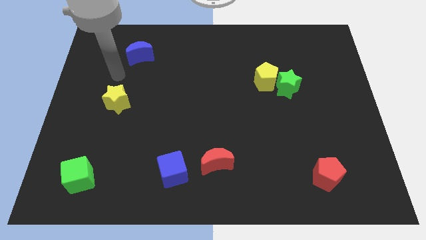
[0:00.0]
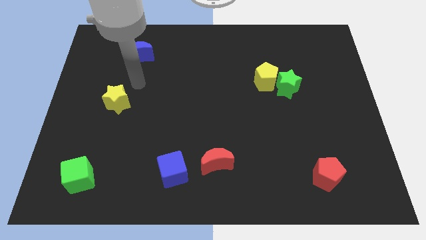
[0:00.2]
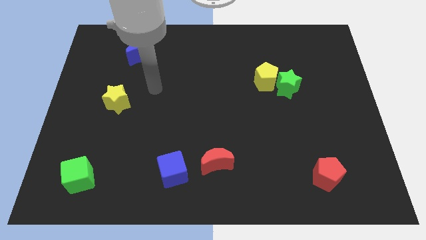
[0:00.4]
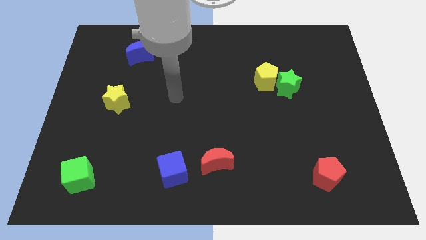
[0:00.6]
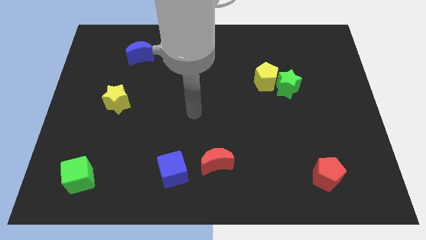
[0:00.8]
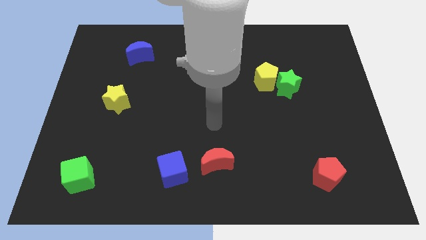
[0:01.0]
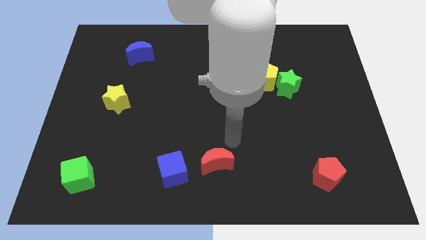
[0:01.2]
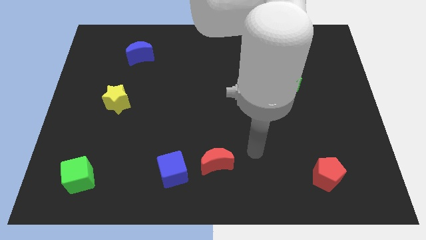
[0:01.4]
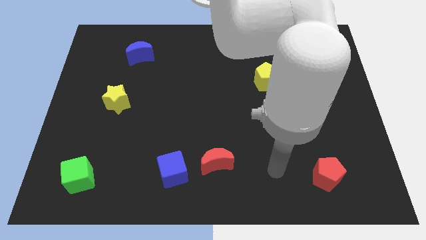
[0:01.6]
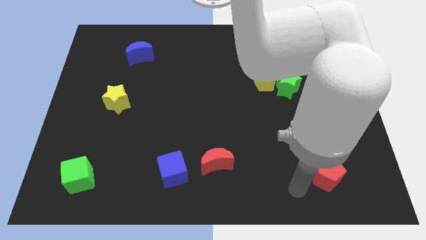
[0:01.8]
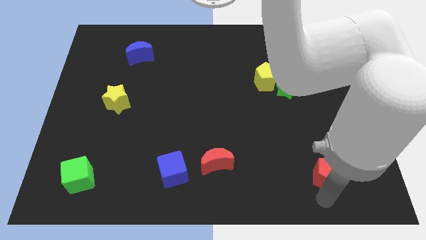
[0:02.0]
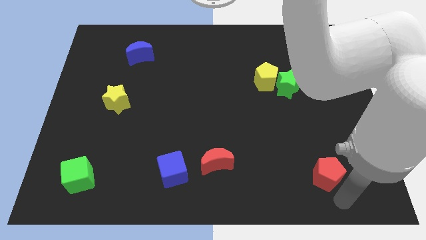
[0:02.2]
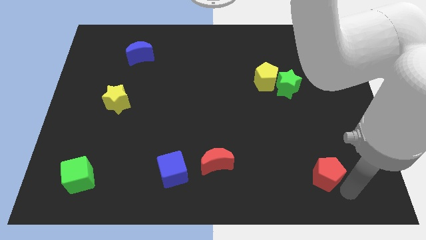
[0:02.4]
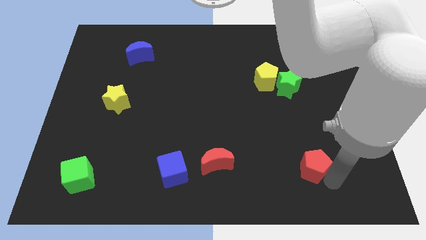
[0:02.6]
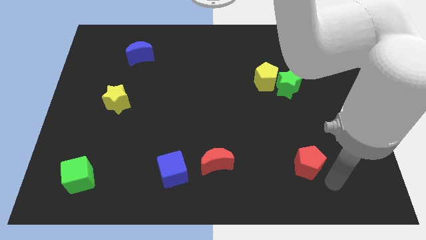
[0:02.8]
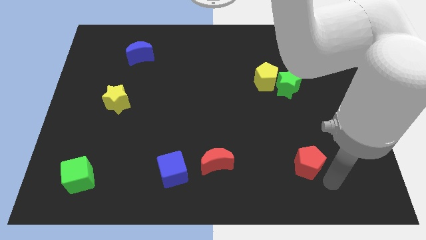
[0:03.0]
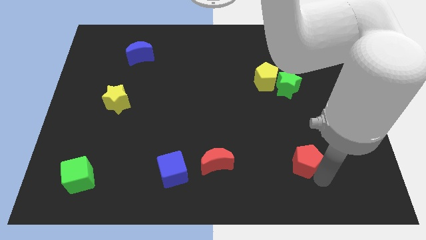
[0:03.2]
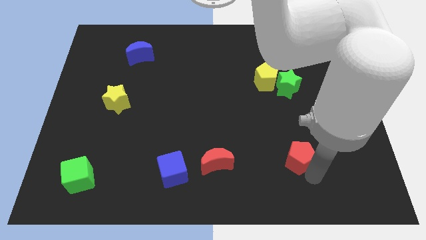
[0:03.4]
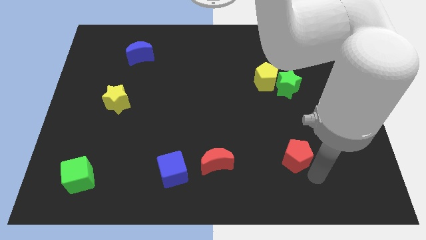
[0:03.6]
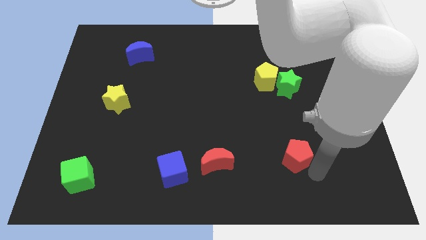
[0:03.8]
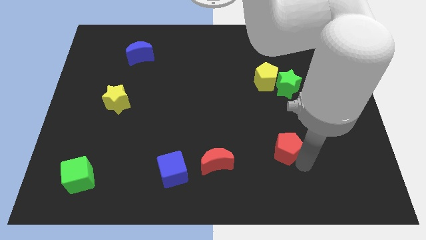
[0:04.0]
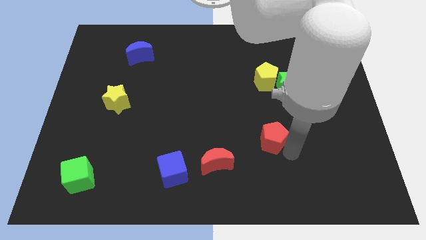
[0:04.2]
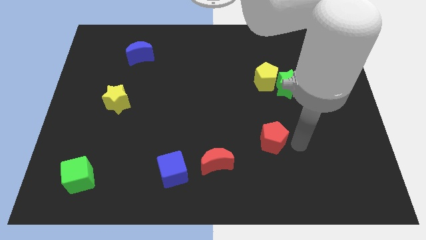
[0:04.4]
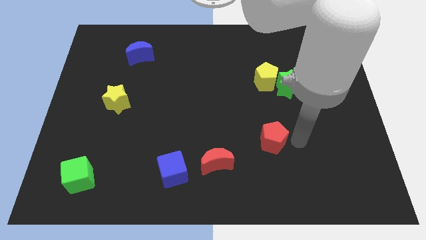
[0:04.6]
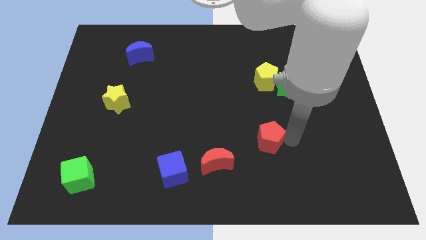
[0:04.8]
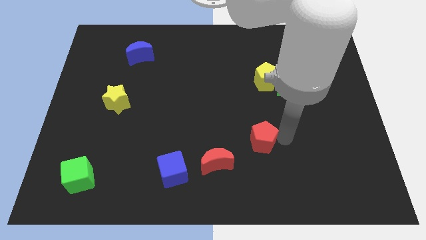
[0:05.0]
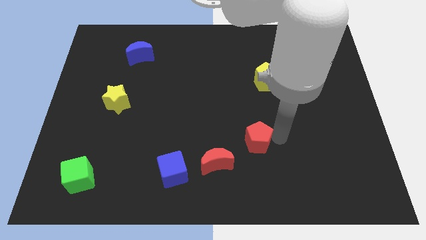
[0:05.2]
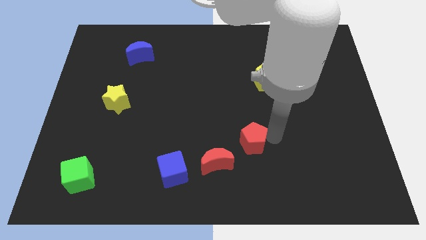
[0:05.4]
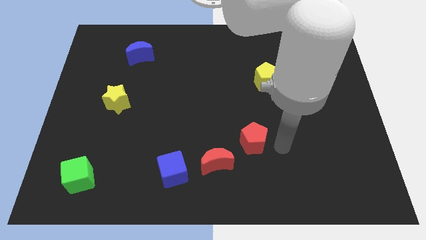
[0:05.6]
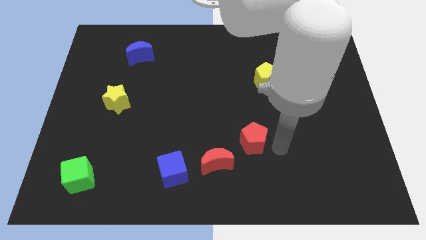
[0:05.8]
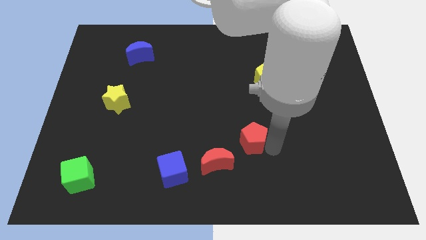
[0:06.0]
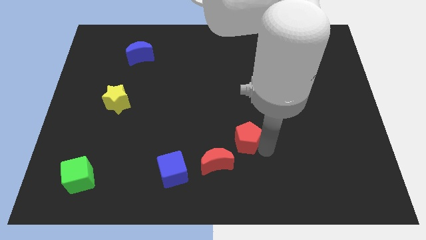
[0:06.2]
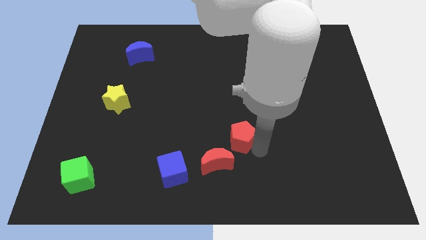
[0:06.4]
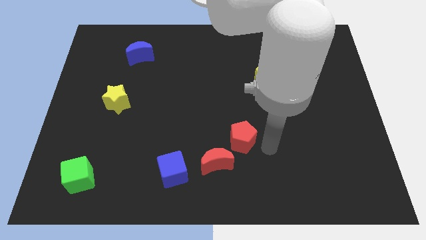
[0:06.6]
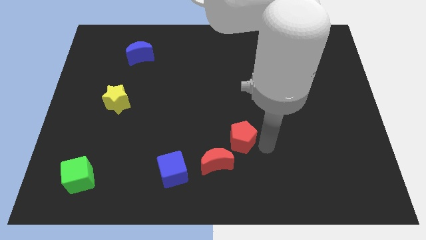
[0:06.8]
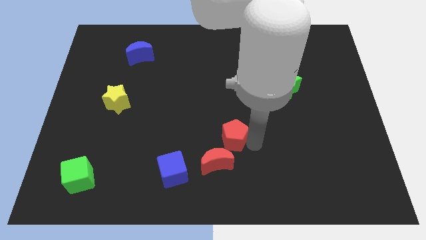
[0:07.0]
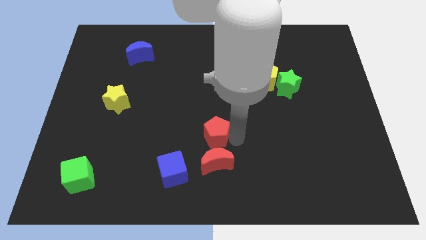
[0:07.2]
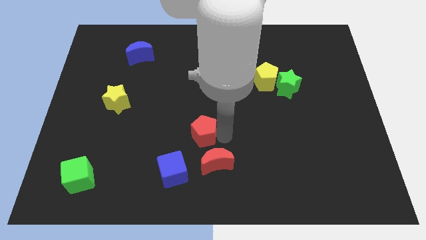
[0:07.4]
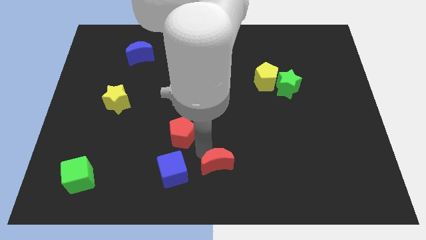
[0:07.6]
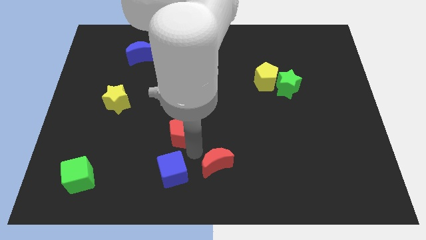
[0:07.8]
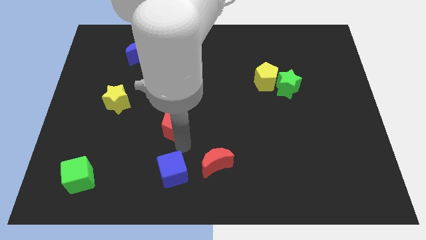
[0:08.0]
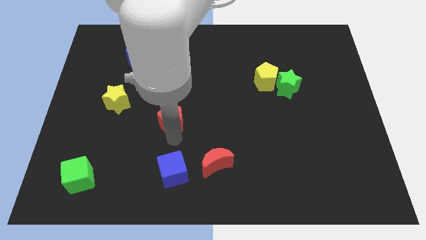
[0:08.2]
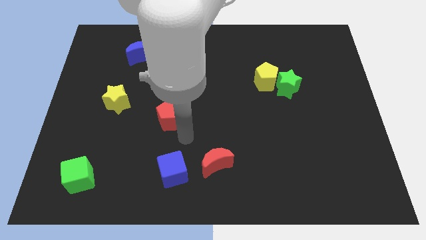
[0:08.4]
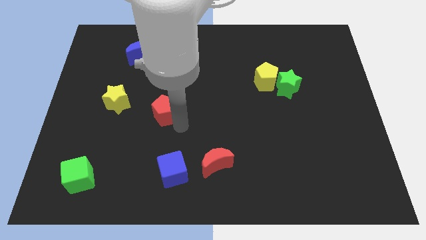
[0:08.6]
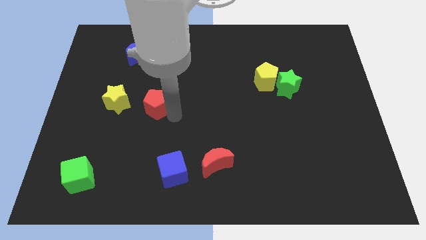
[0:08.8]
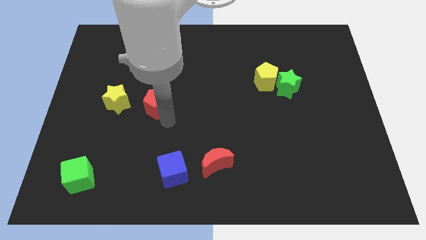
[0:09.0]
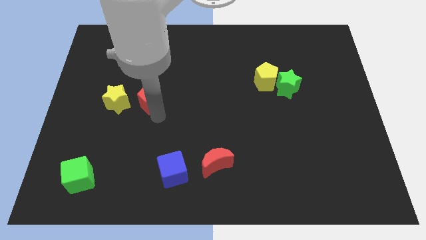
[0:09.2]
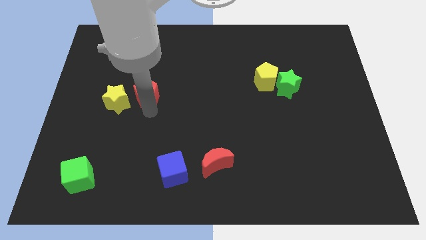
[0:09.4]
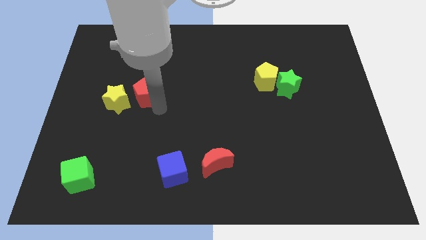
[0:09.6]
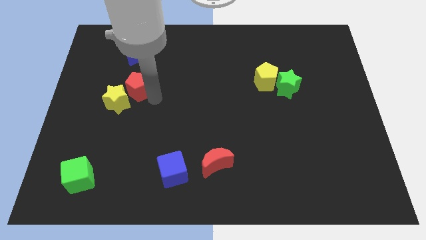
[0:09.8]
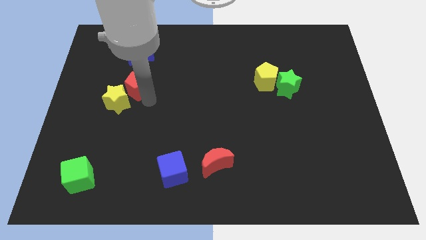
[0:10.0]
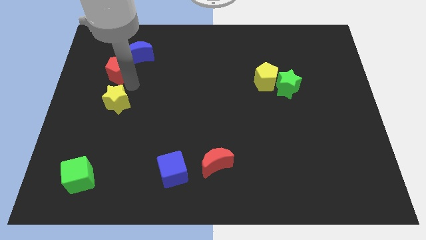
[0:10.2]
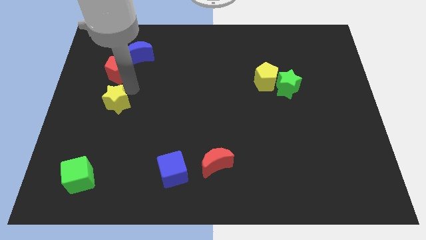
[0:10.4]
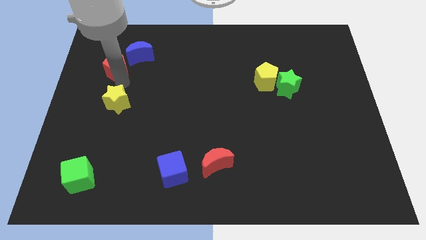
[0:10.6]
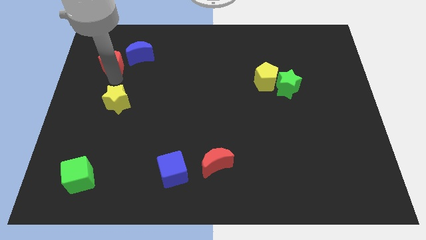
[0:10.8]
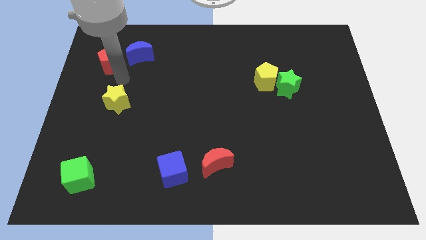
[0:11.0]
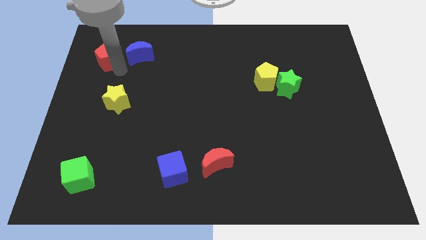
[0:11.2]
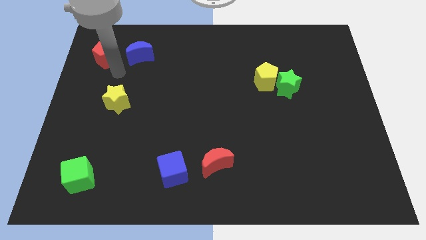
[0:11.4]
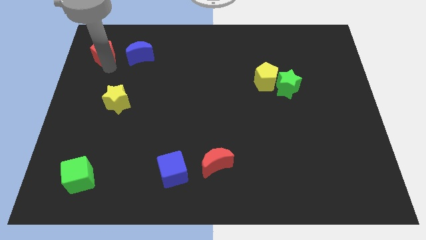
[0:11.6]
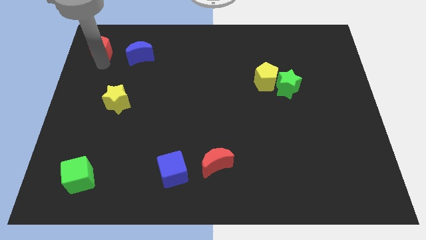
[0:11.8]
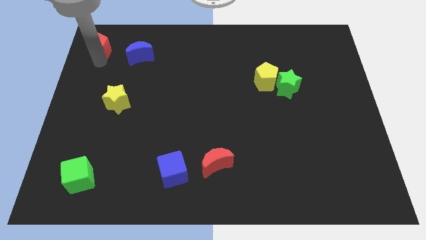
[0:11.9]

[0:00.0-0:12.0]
slide the red pentagon to the top left of the board

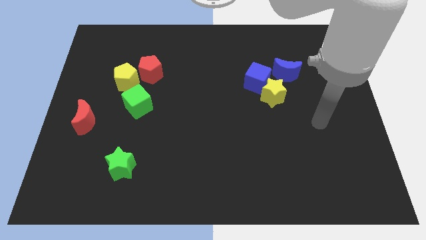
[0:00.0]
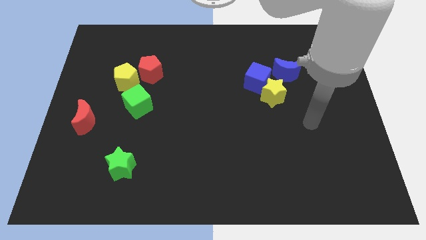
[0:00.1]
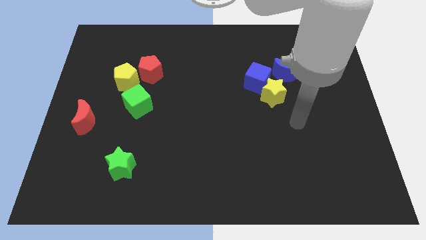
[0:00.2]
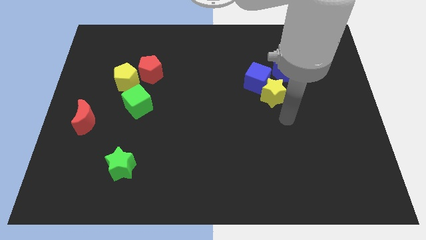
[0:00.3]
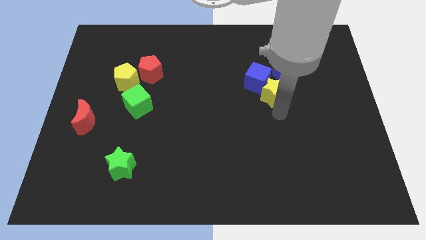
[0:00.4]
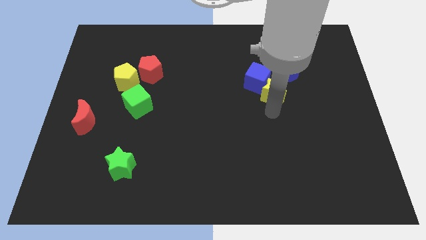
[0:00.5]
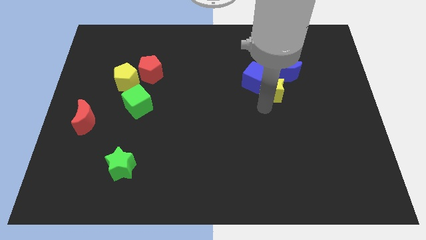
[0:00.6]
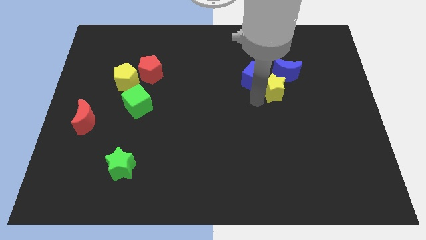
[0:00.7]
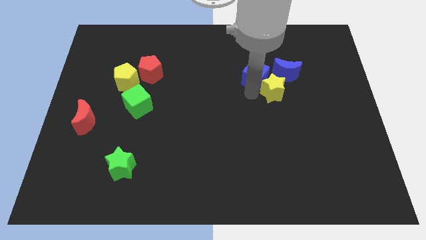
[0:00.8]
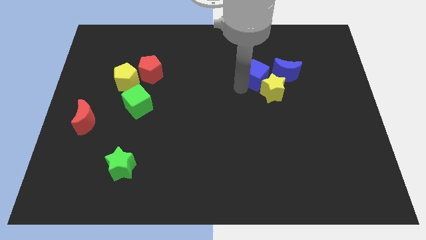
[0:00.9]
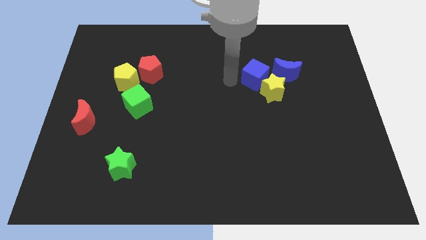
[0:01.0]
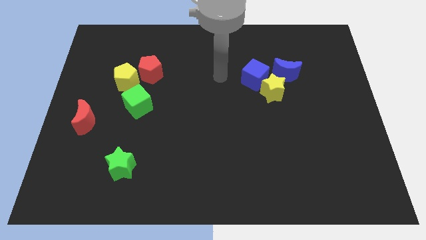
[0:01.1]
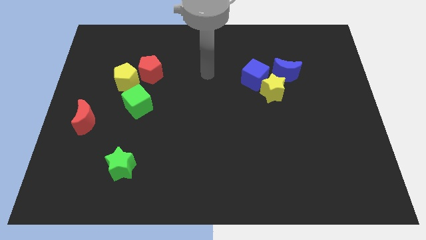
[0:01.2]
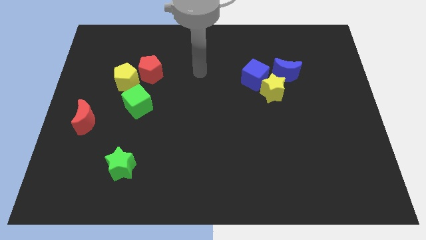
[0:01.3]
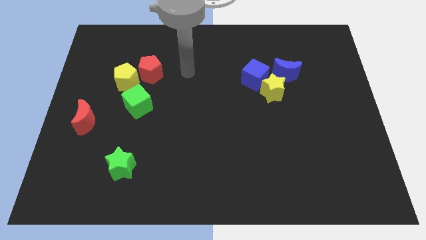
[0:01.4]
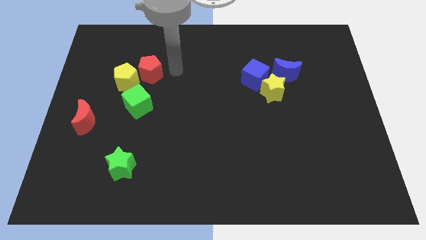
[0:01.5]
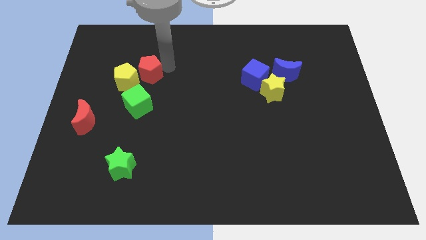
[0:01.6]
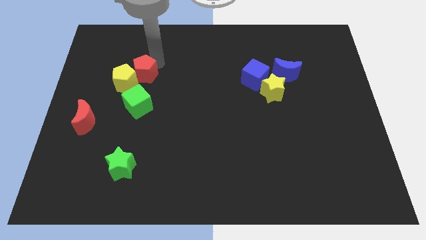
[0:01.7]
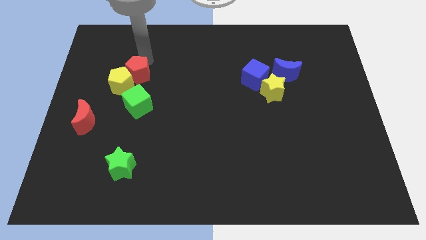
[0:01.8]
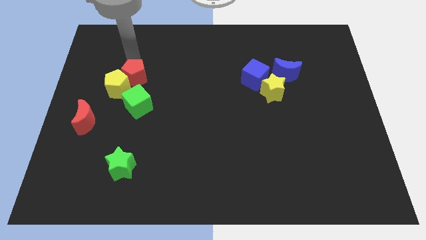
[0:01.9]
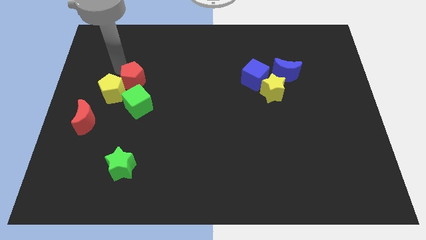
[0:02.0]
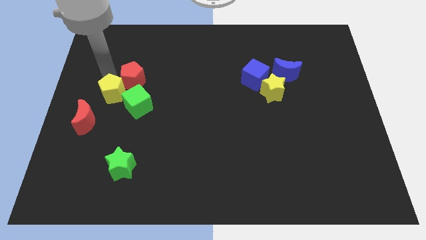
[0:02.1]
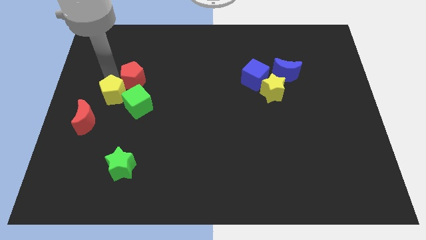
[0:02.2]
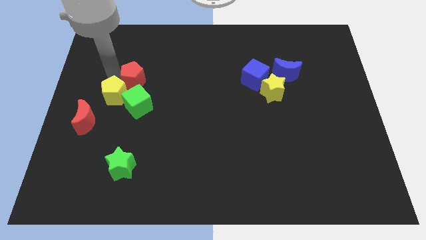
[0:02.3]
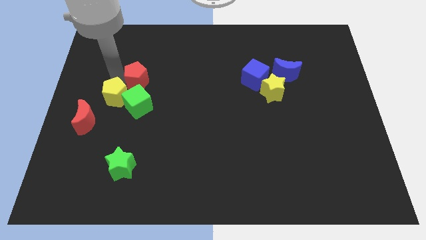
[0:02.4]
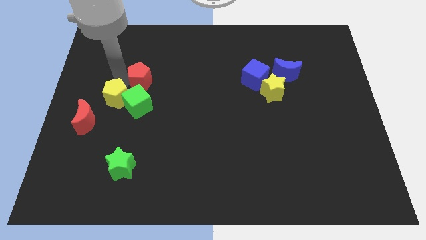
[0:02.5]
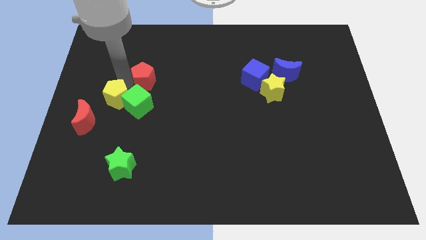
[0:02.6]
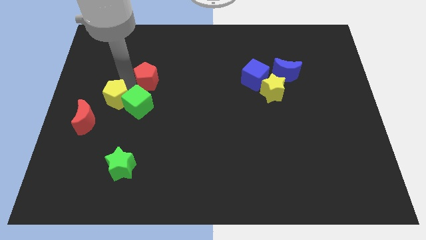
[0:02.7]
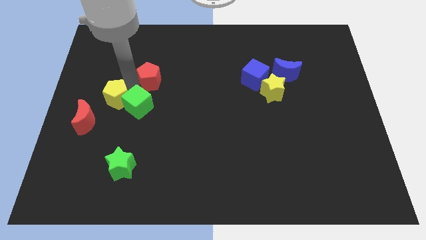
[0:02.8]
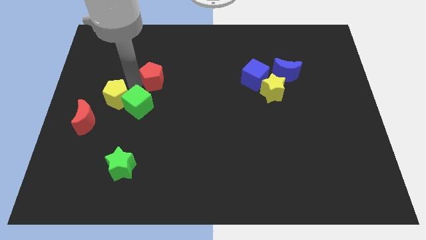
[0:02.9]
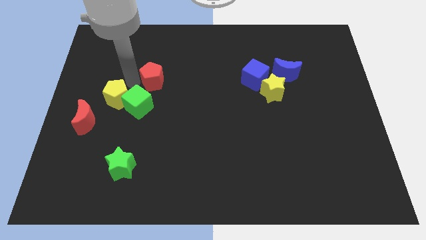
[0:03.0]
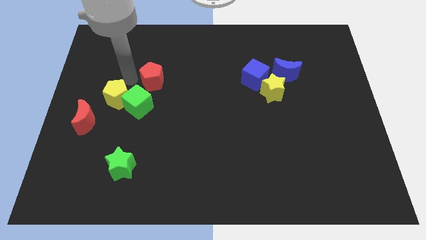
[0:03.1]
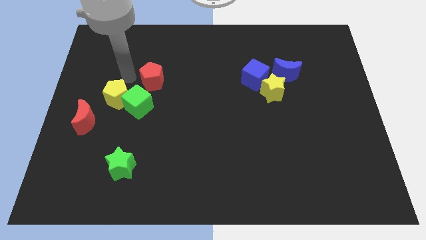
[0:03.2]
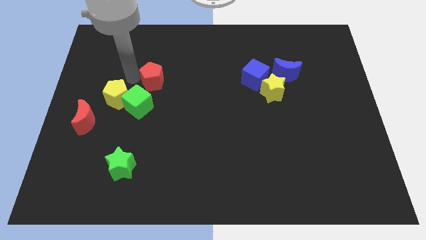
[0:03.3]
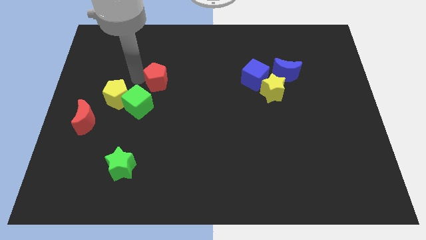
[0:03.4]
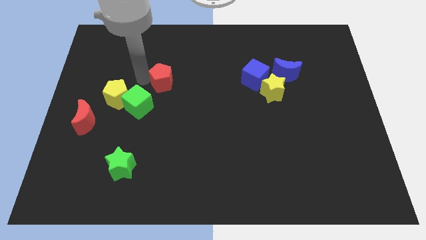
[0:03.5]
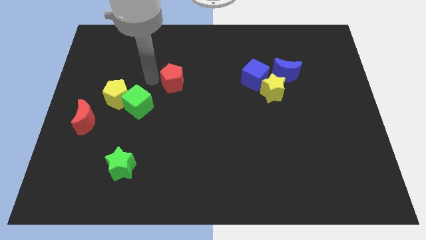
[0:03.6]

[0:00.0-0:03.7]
push the red pentagon to the middle of the board
